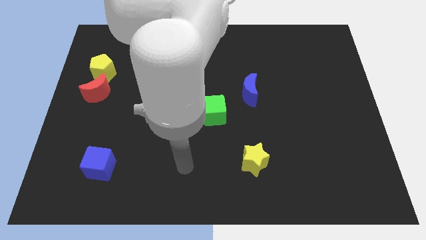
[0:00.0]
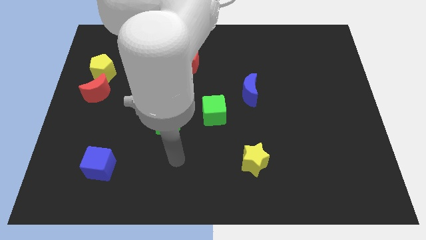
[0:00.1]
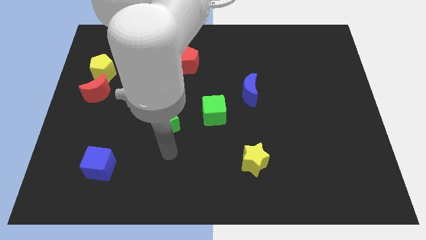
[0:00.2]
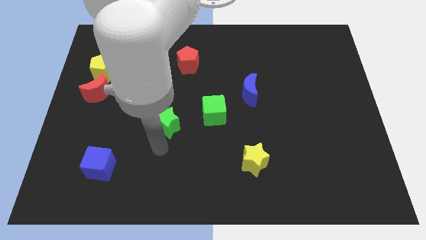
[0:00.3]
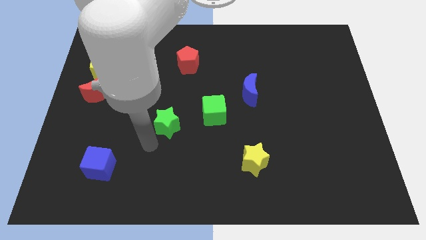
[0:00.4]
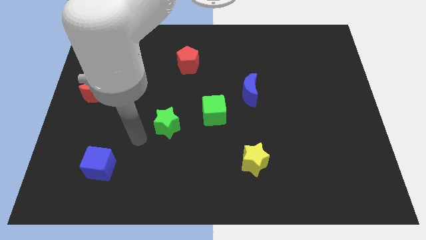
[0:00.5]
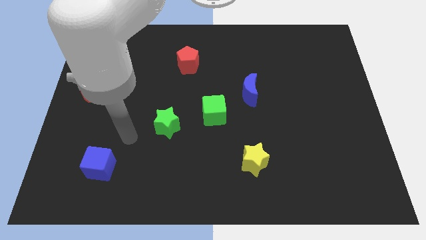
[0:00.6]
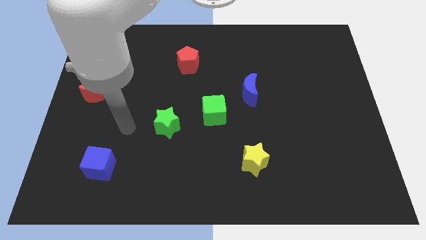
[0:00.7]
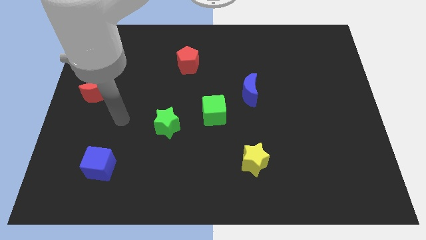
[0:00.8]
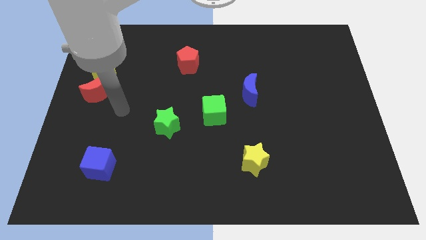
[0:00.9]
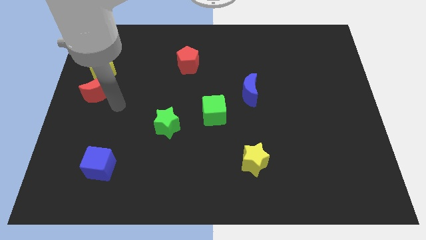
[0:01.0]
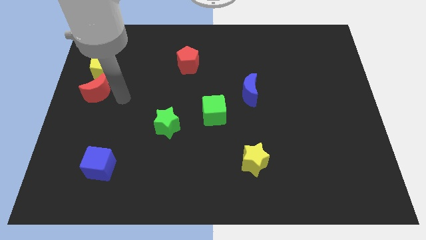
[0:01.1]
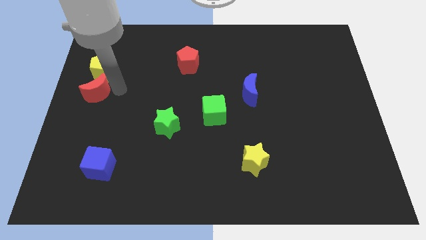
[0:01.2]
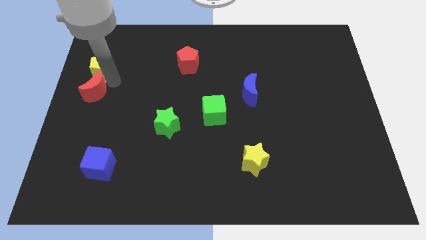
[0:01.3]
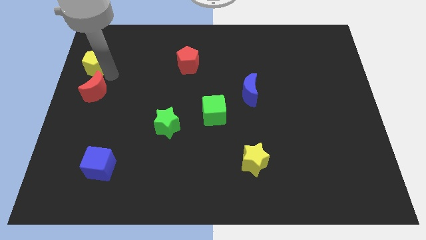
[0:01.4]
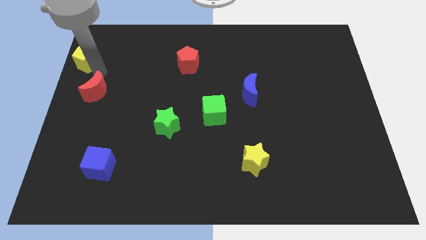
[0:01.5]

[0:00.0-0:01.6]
move the red moon away from the yellow pentagon

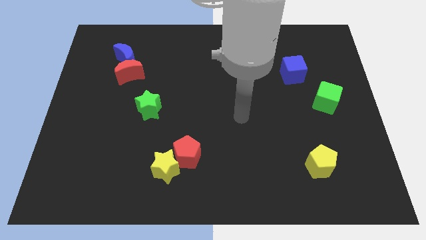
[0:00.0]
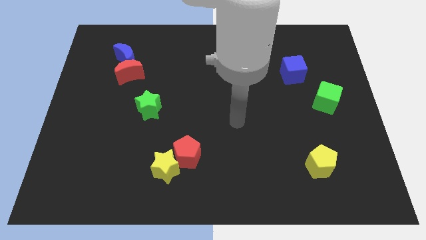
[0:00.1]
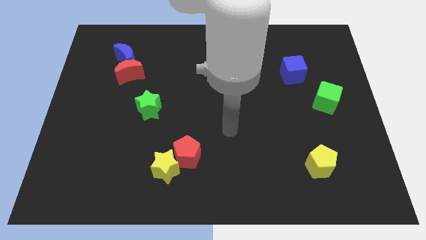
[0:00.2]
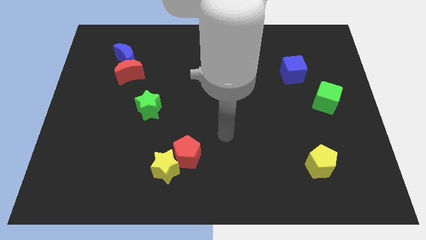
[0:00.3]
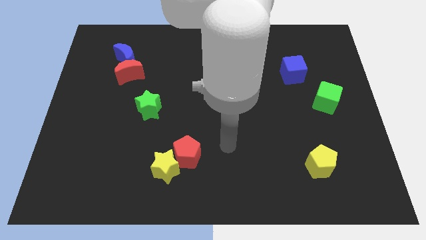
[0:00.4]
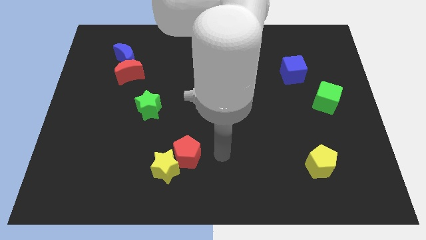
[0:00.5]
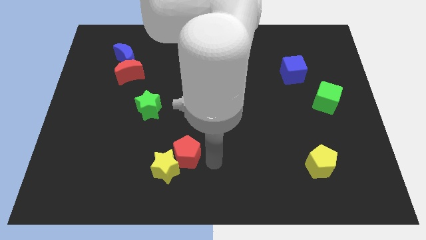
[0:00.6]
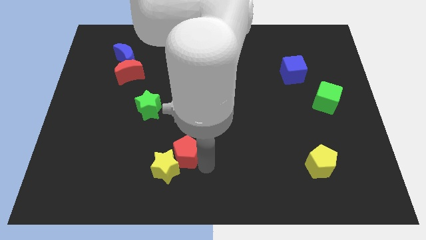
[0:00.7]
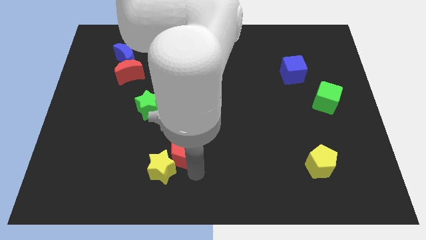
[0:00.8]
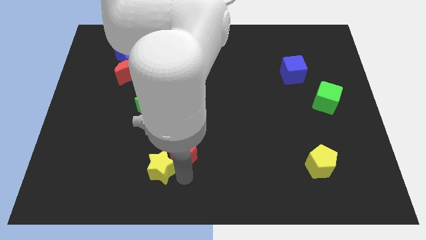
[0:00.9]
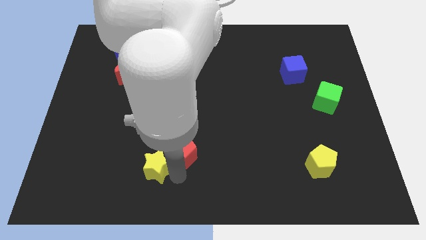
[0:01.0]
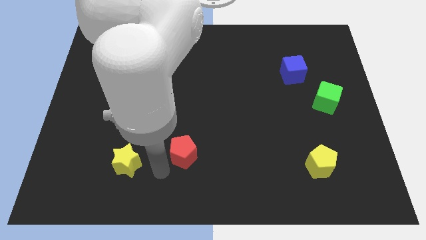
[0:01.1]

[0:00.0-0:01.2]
separate the red pentagon from the yellow star

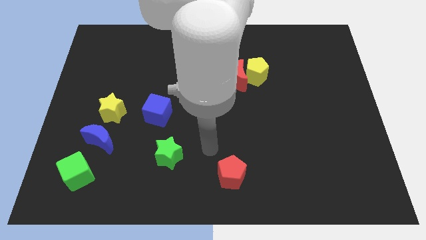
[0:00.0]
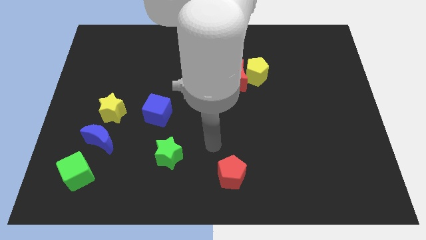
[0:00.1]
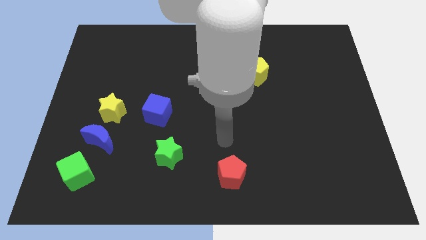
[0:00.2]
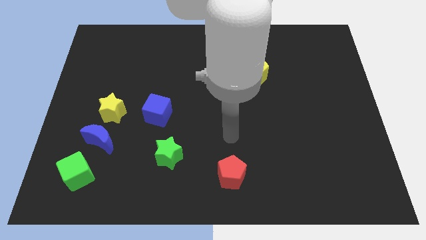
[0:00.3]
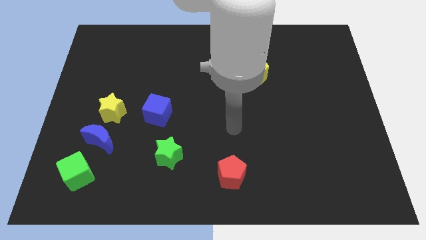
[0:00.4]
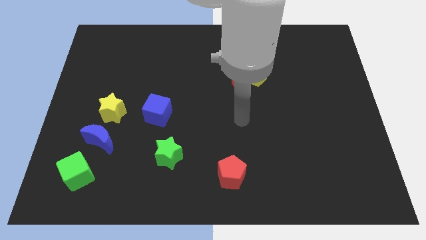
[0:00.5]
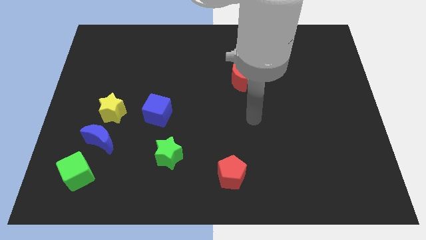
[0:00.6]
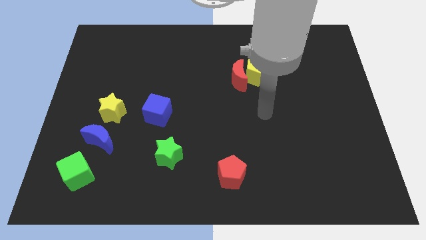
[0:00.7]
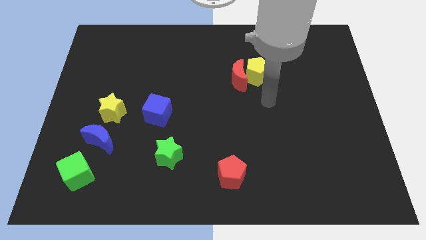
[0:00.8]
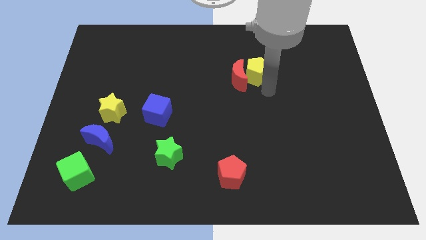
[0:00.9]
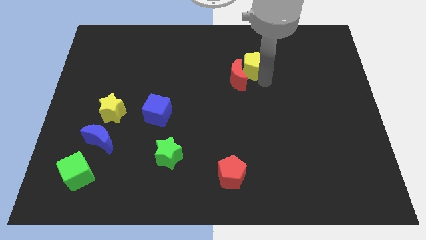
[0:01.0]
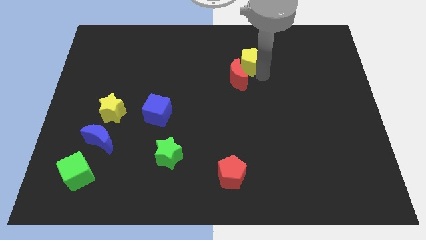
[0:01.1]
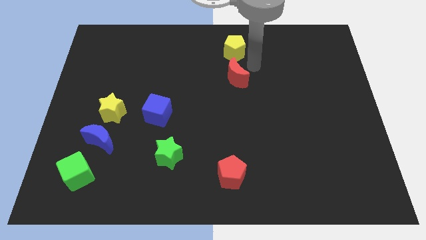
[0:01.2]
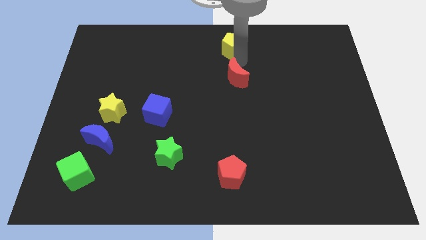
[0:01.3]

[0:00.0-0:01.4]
pull the red moon apart from the yellow pentagon

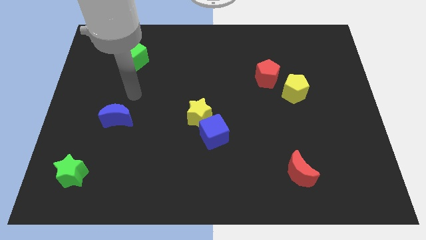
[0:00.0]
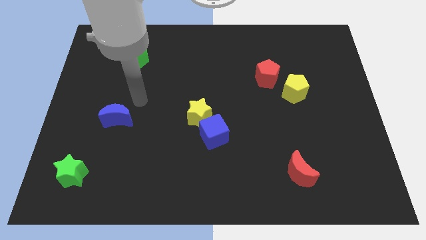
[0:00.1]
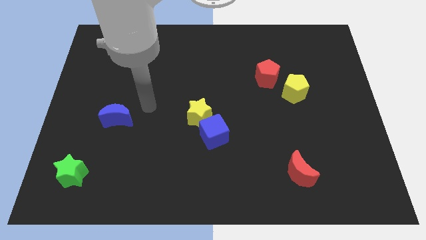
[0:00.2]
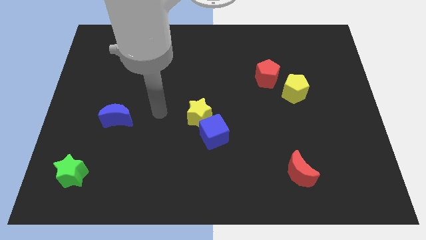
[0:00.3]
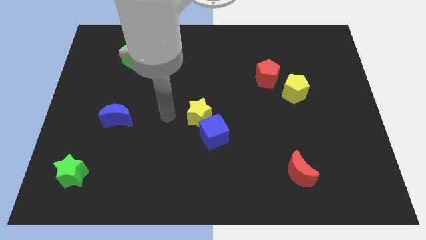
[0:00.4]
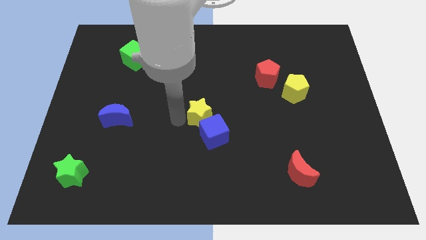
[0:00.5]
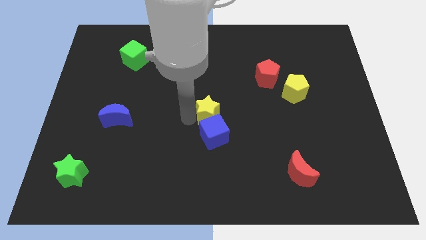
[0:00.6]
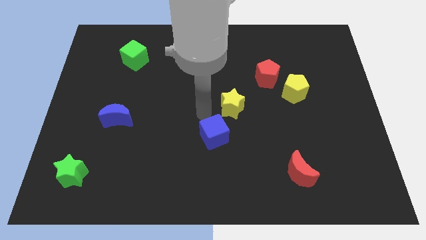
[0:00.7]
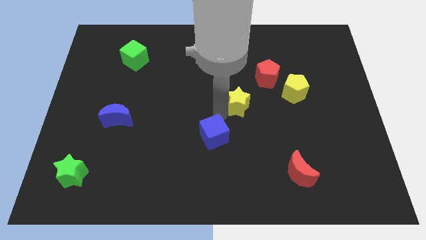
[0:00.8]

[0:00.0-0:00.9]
separate the blue cube from the yellow star

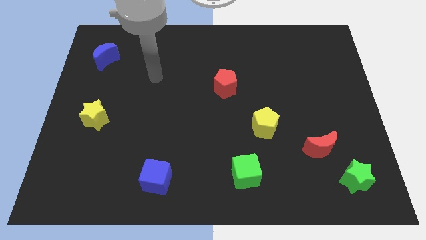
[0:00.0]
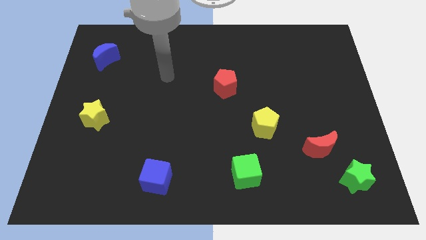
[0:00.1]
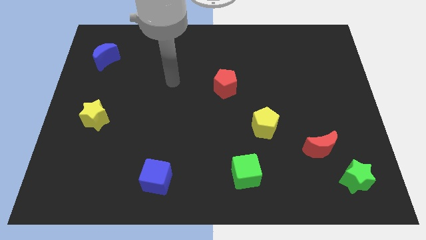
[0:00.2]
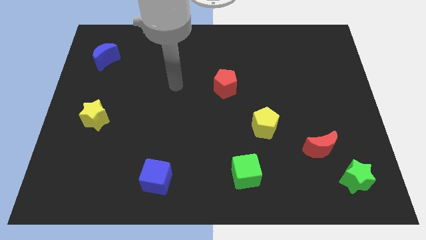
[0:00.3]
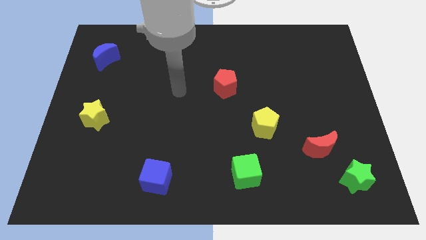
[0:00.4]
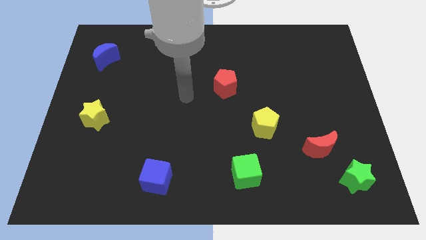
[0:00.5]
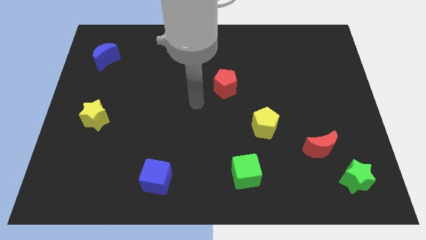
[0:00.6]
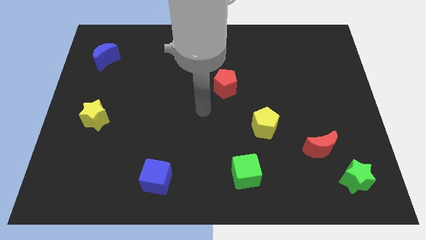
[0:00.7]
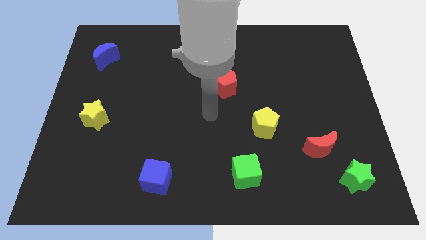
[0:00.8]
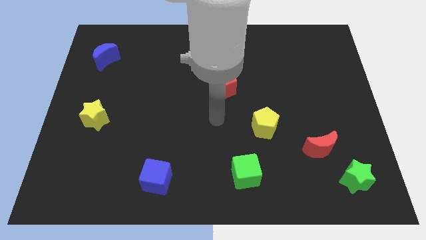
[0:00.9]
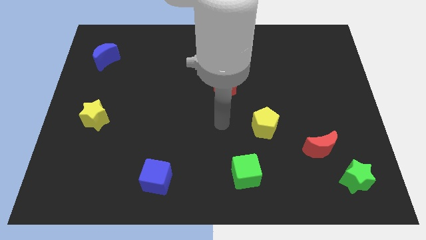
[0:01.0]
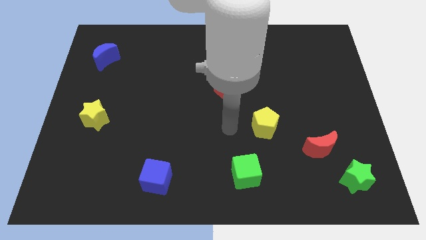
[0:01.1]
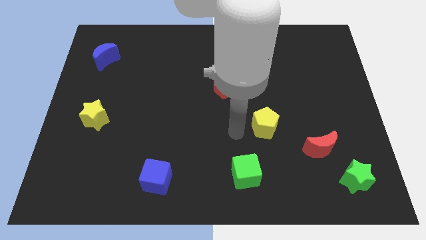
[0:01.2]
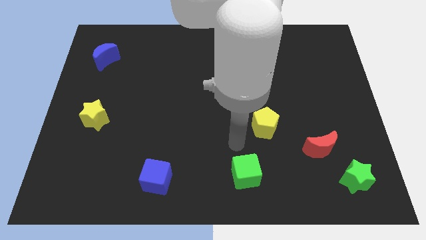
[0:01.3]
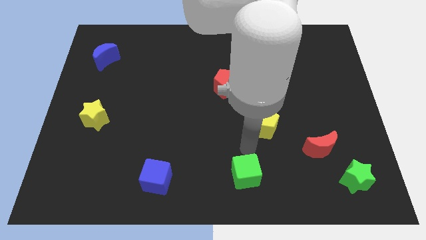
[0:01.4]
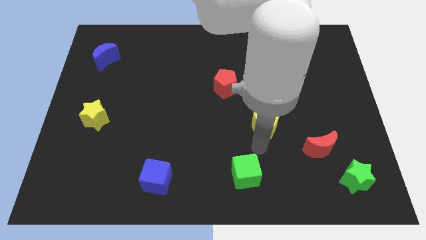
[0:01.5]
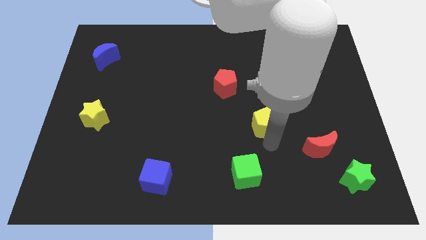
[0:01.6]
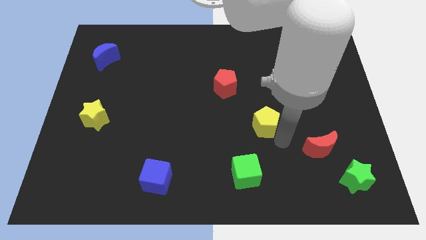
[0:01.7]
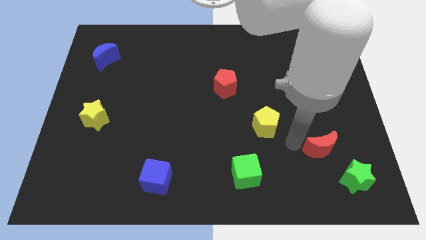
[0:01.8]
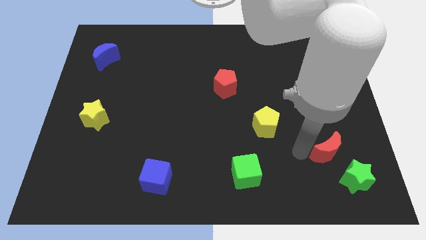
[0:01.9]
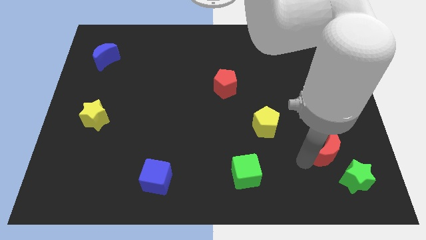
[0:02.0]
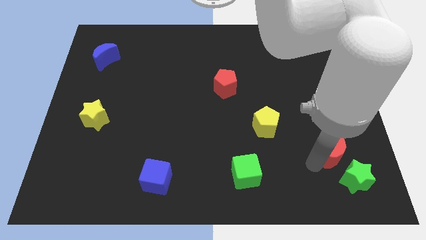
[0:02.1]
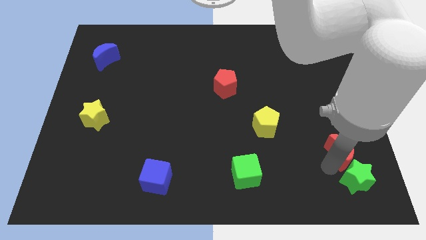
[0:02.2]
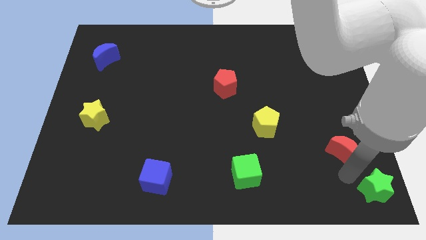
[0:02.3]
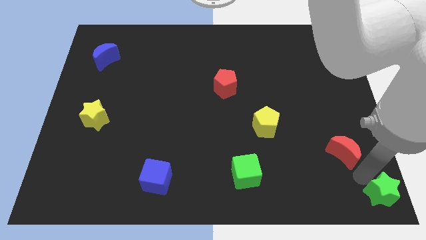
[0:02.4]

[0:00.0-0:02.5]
separate the red moon from the green star

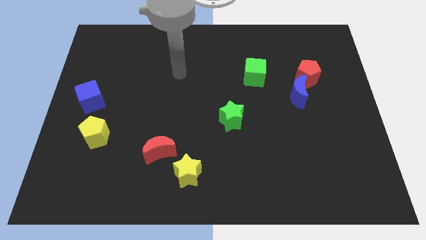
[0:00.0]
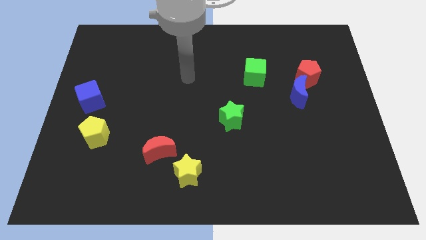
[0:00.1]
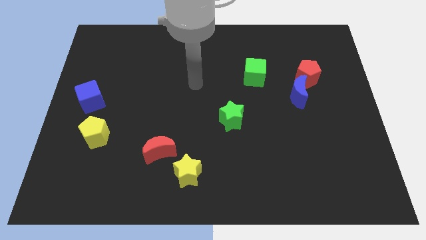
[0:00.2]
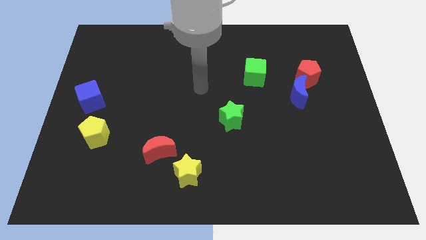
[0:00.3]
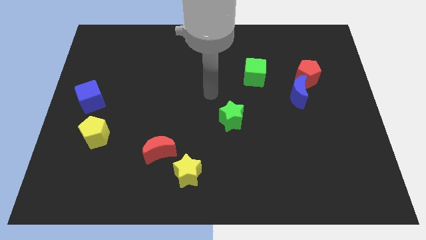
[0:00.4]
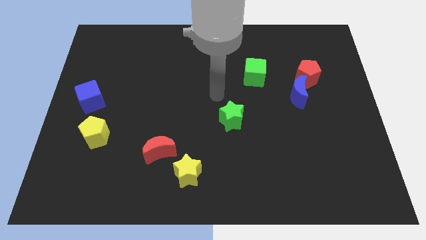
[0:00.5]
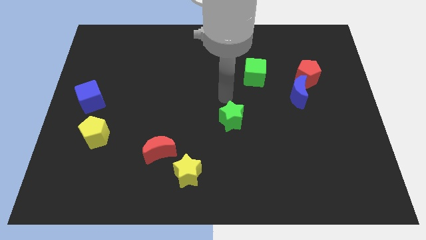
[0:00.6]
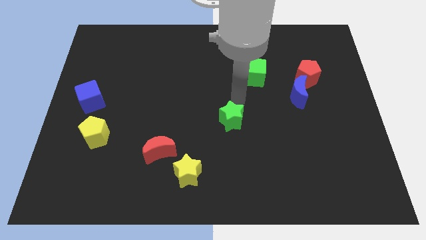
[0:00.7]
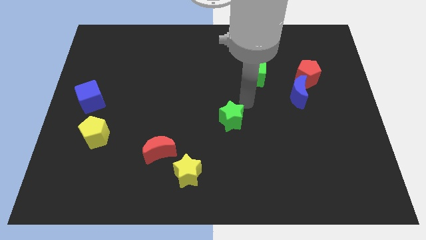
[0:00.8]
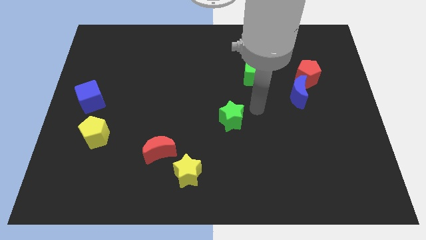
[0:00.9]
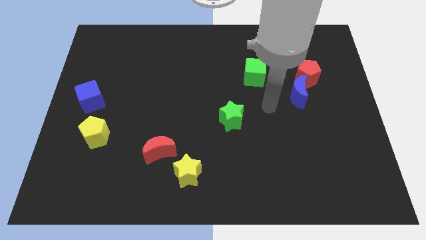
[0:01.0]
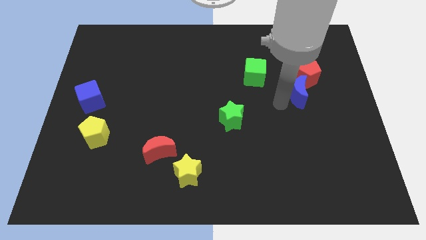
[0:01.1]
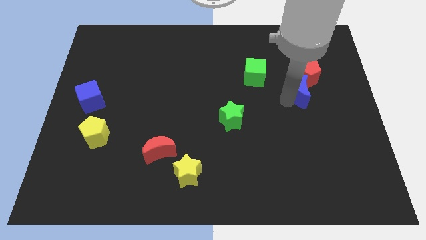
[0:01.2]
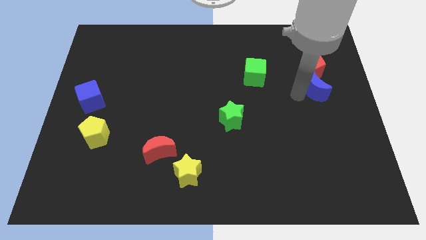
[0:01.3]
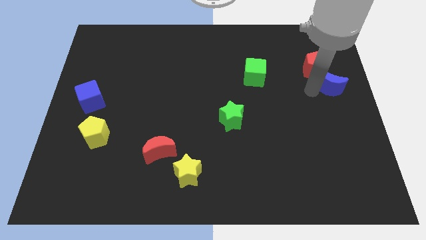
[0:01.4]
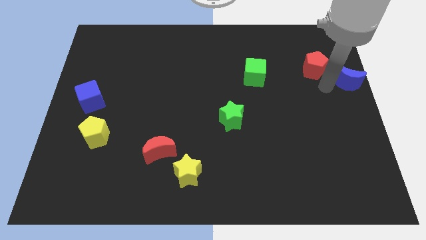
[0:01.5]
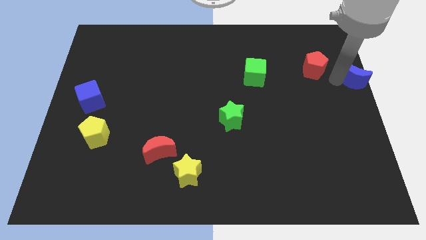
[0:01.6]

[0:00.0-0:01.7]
move the red pentagon away from the blue moon
